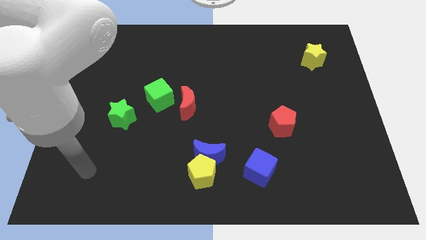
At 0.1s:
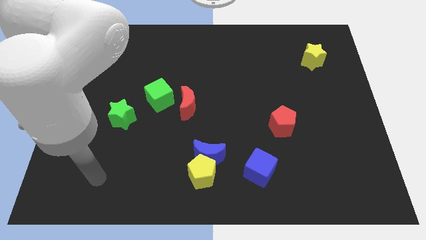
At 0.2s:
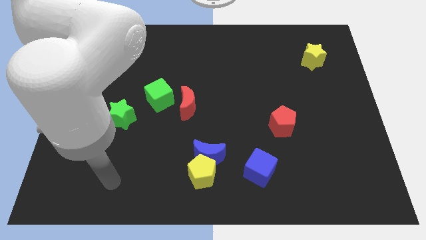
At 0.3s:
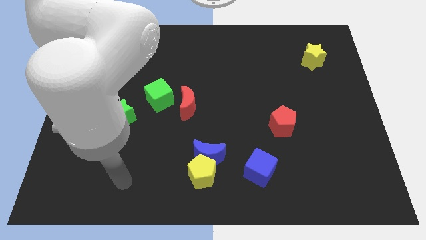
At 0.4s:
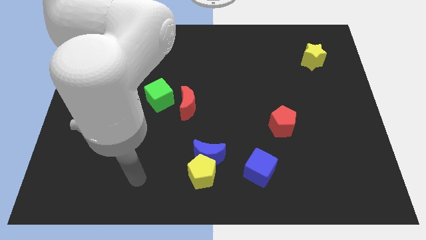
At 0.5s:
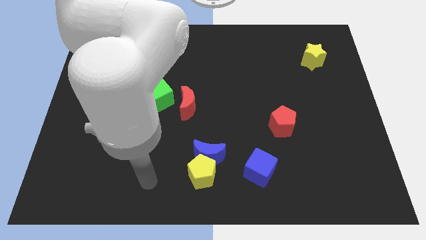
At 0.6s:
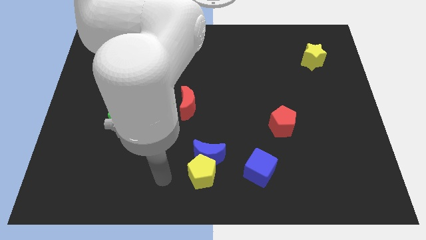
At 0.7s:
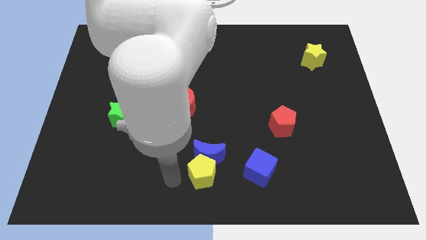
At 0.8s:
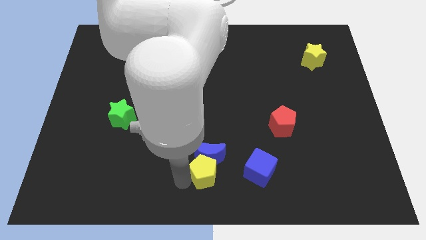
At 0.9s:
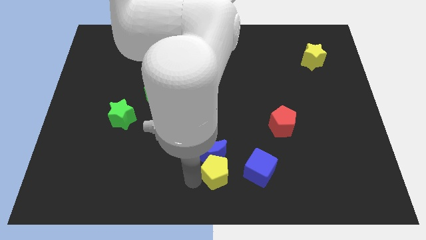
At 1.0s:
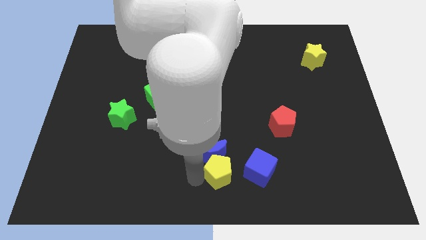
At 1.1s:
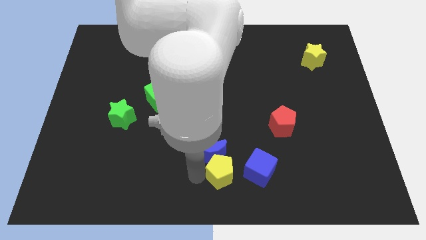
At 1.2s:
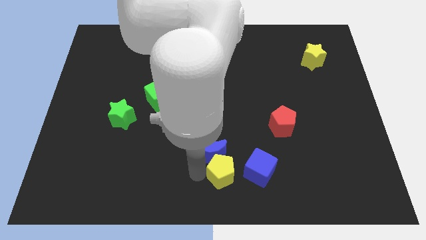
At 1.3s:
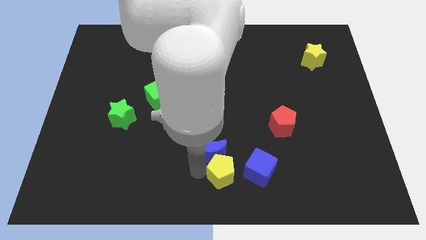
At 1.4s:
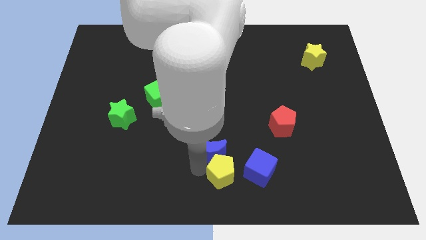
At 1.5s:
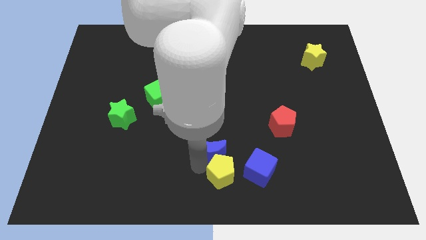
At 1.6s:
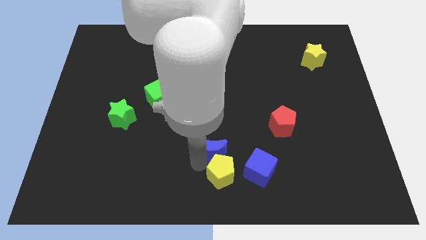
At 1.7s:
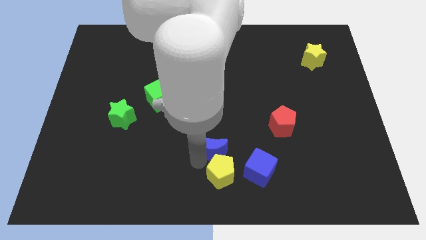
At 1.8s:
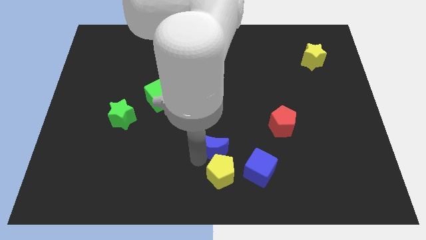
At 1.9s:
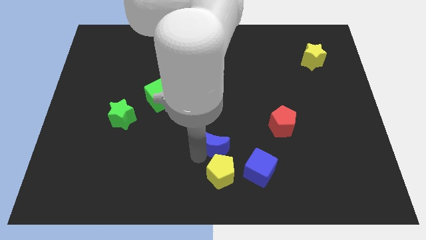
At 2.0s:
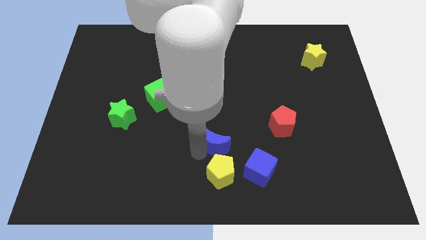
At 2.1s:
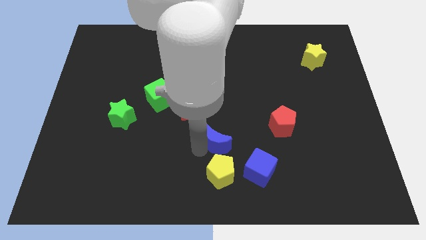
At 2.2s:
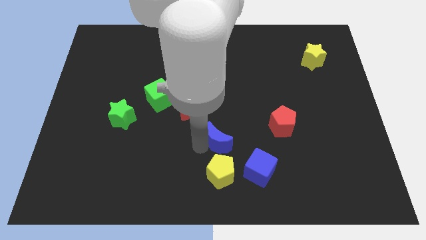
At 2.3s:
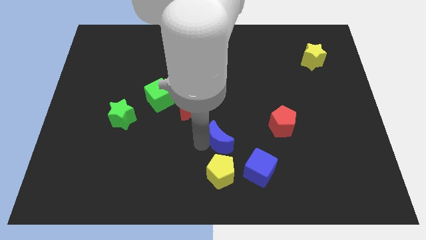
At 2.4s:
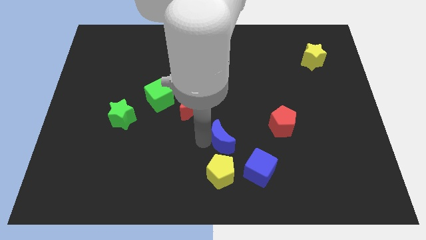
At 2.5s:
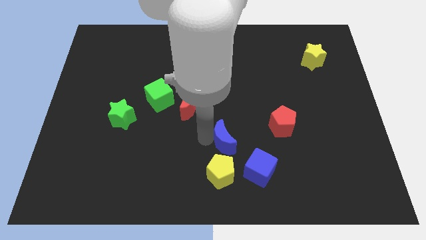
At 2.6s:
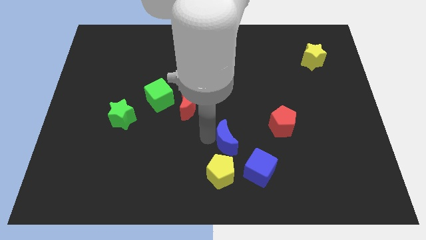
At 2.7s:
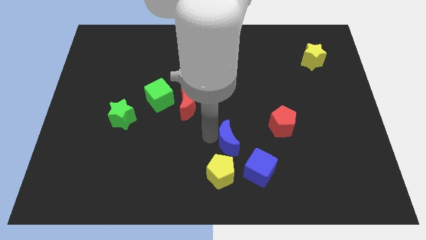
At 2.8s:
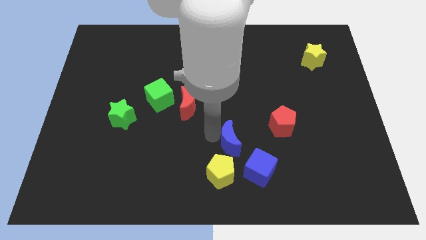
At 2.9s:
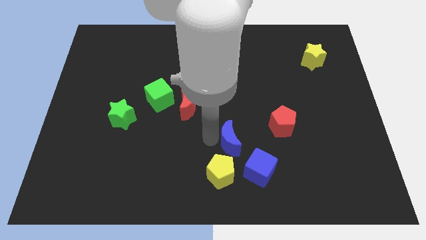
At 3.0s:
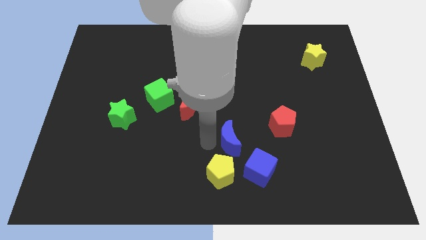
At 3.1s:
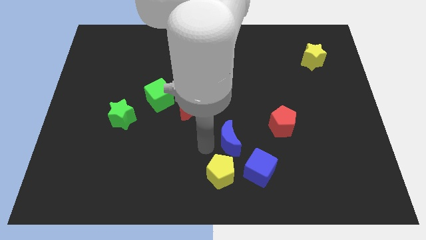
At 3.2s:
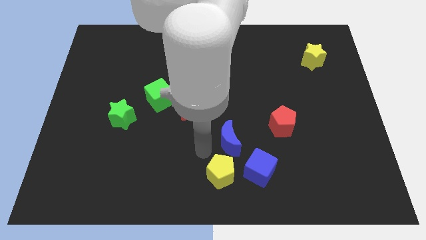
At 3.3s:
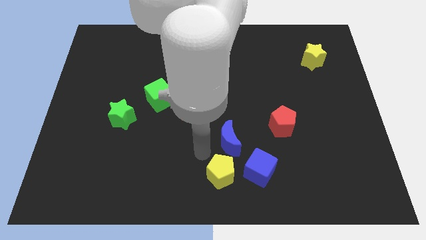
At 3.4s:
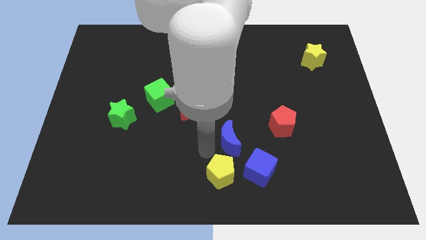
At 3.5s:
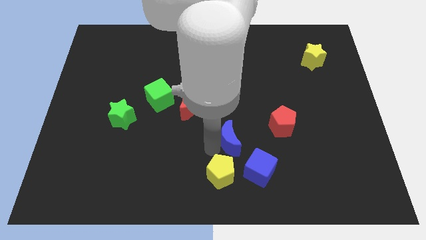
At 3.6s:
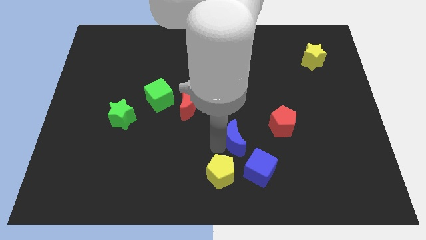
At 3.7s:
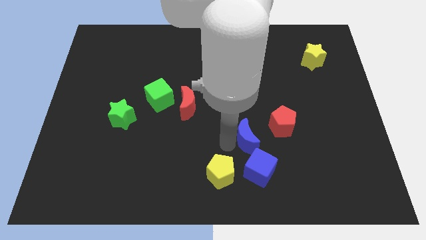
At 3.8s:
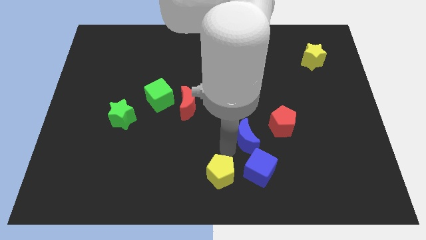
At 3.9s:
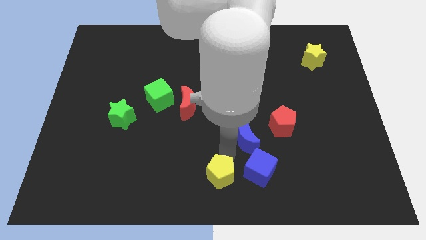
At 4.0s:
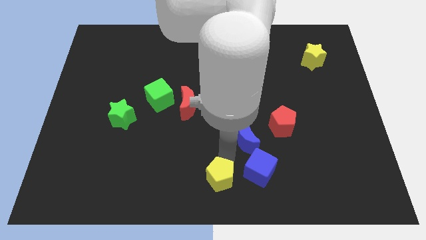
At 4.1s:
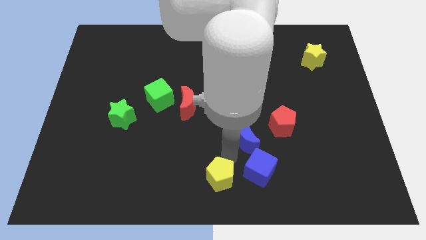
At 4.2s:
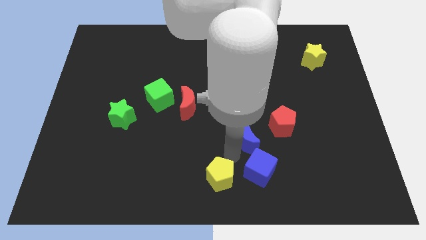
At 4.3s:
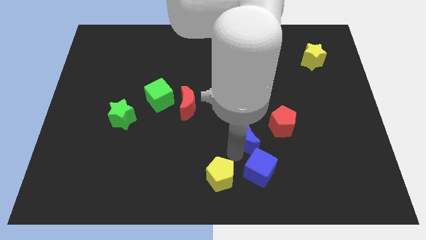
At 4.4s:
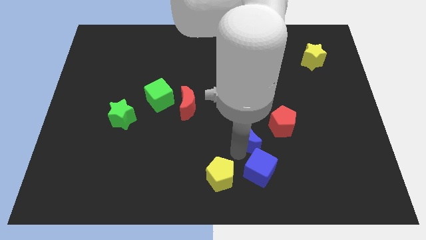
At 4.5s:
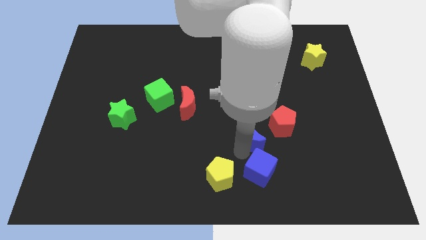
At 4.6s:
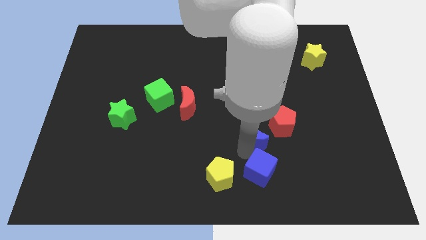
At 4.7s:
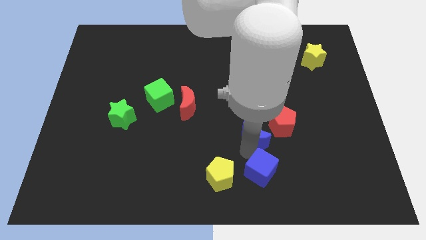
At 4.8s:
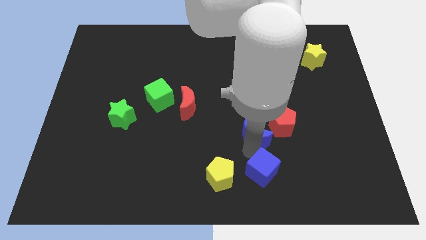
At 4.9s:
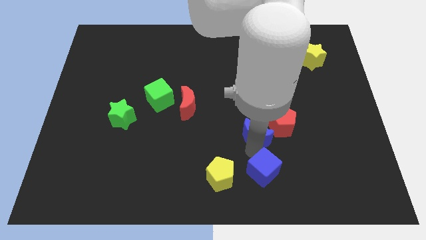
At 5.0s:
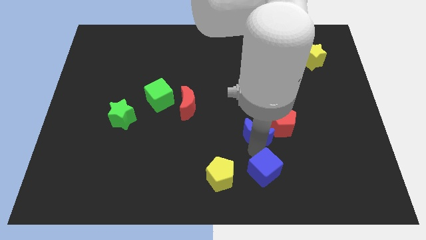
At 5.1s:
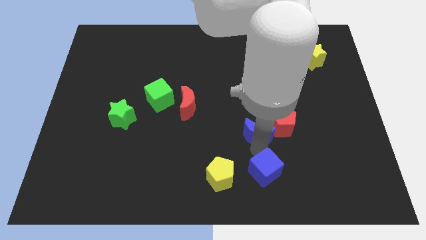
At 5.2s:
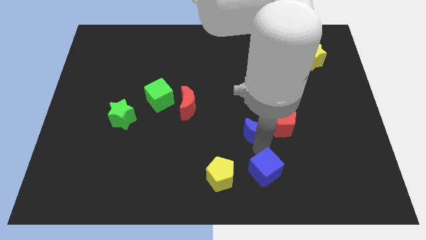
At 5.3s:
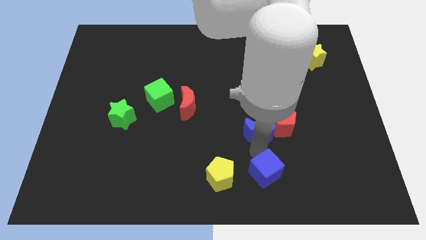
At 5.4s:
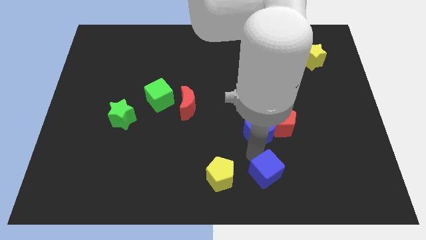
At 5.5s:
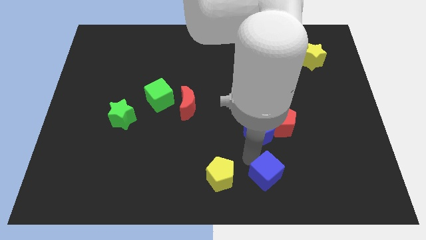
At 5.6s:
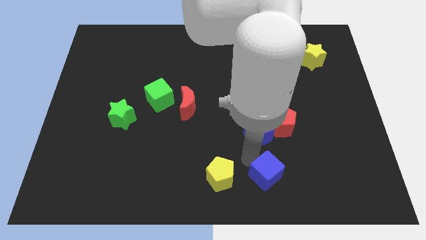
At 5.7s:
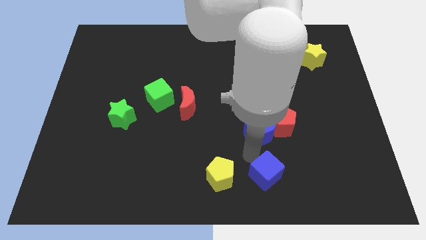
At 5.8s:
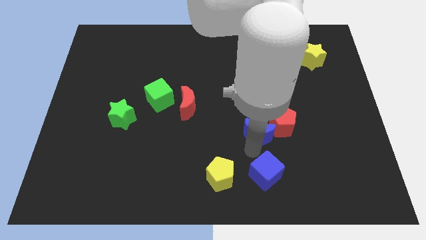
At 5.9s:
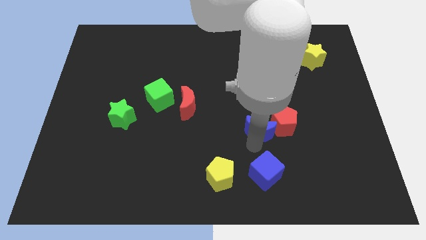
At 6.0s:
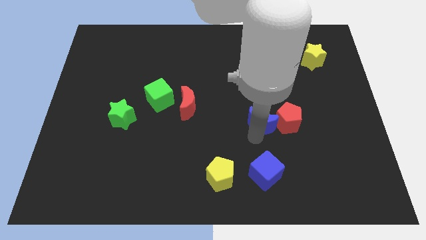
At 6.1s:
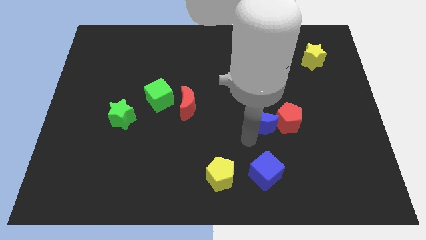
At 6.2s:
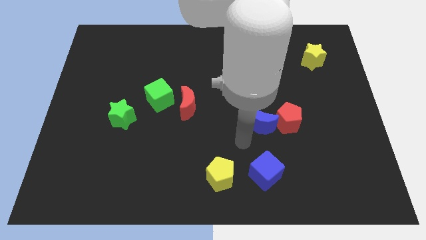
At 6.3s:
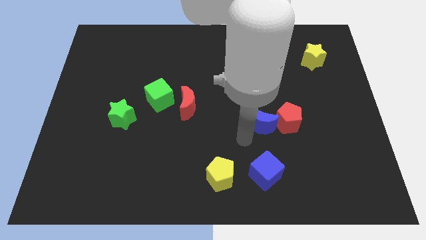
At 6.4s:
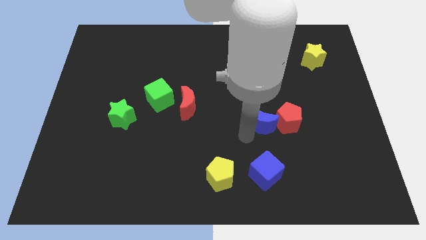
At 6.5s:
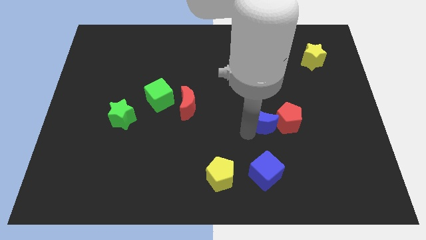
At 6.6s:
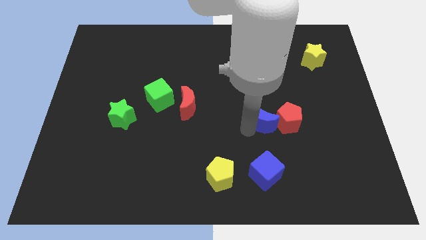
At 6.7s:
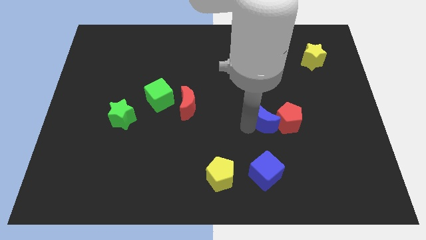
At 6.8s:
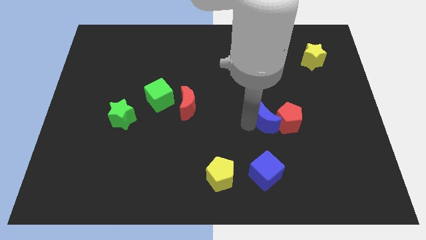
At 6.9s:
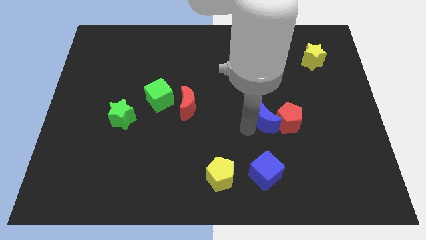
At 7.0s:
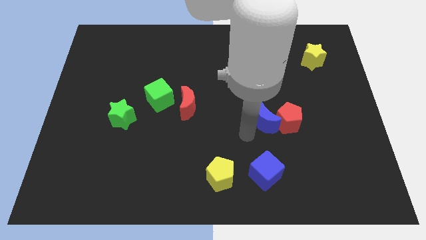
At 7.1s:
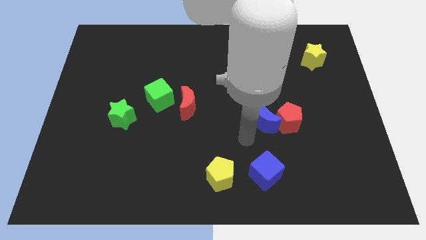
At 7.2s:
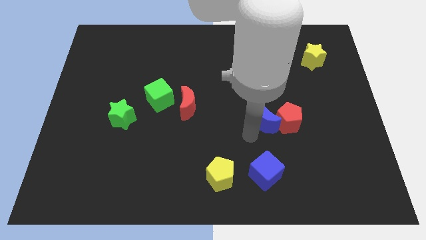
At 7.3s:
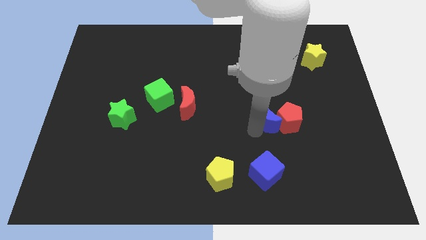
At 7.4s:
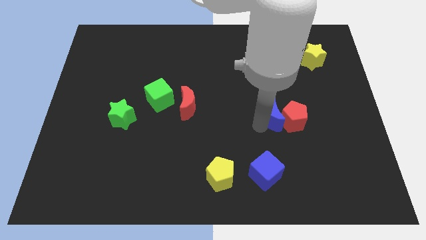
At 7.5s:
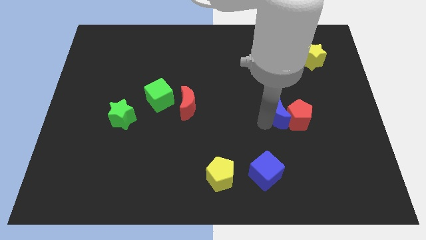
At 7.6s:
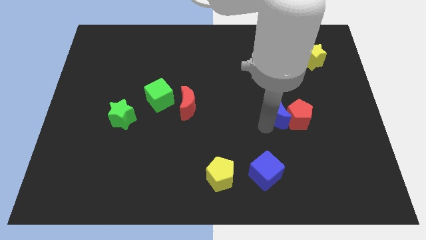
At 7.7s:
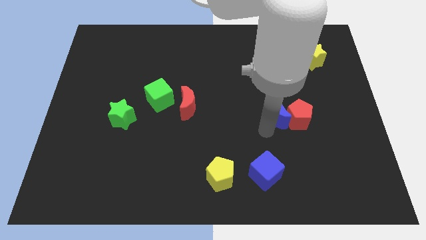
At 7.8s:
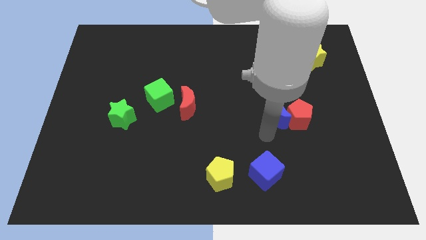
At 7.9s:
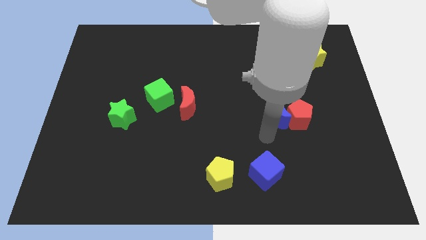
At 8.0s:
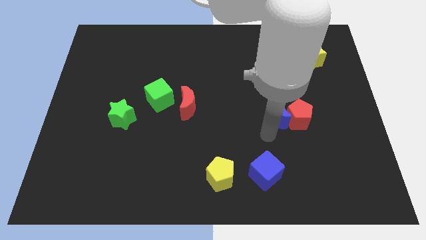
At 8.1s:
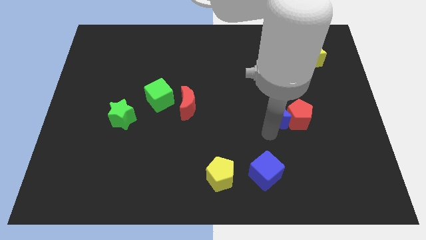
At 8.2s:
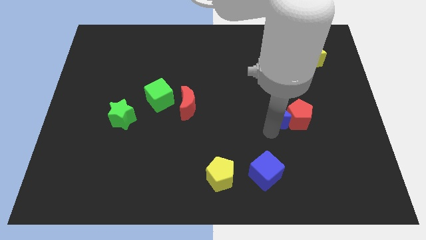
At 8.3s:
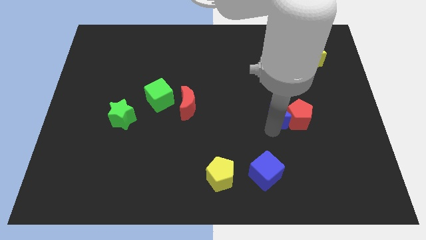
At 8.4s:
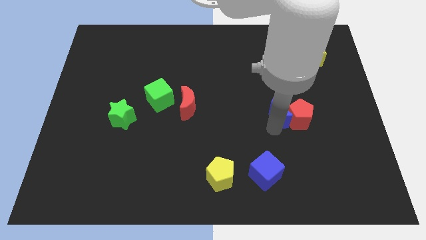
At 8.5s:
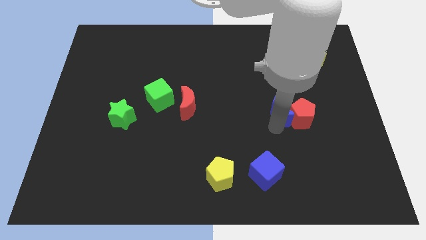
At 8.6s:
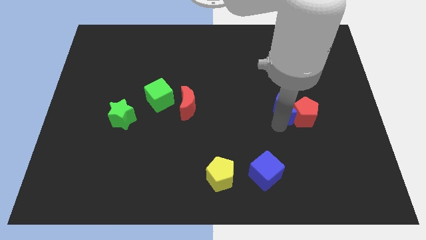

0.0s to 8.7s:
move the blue moon upwards and right
